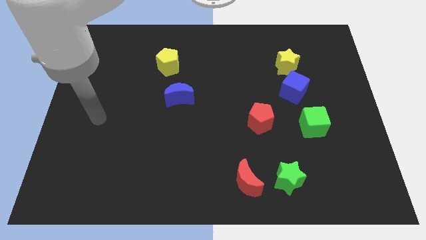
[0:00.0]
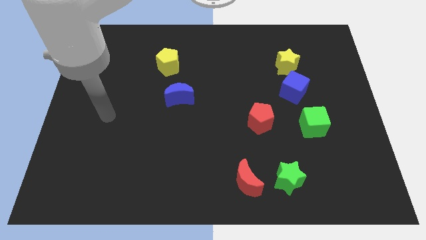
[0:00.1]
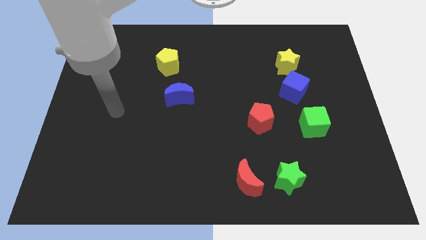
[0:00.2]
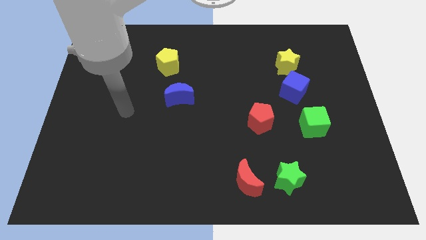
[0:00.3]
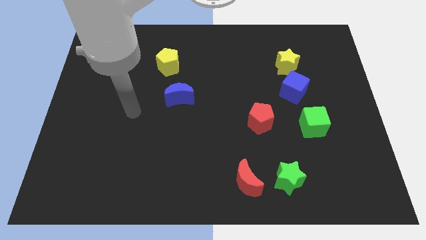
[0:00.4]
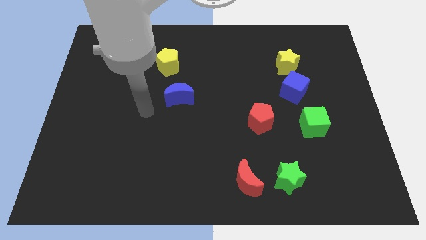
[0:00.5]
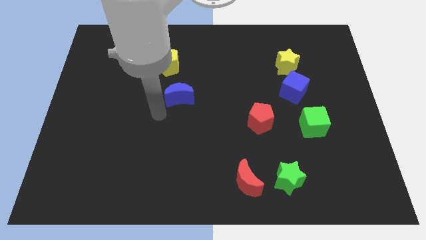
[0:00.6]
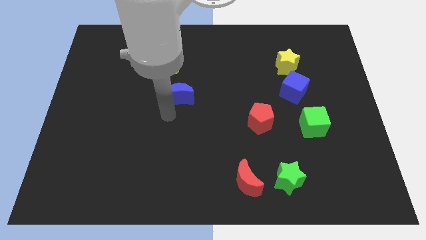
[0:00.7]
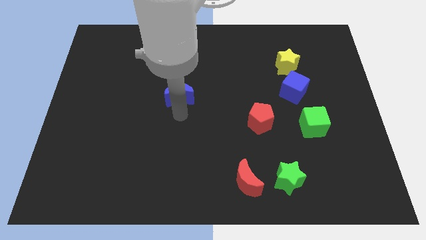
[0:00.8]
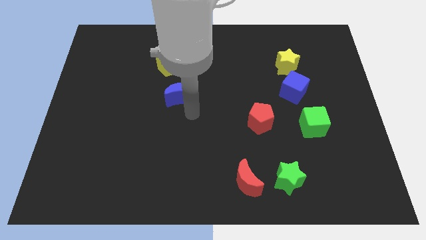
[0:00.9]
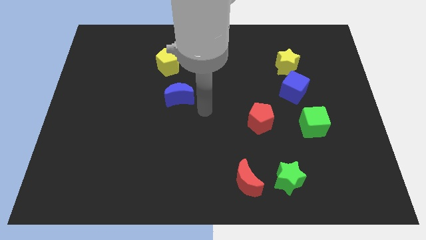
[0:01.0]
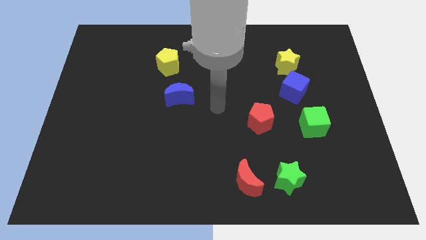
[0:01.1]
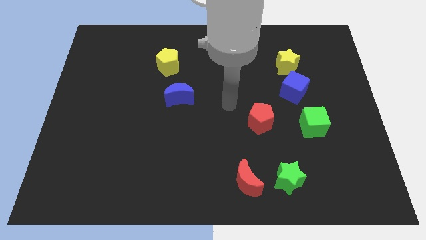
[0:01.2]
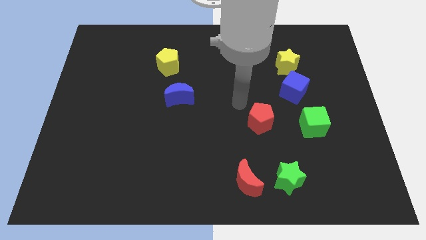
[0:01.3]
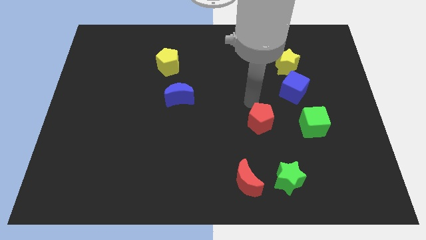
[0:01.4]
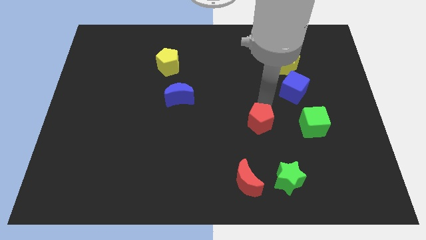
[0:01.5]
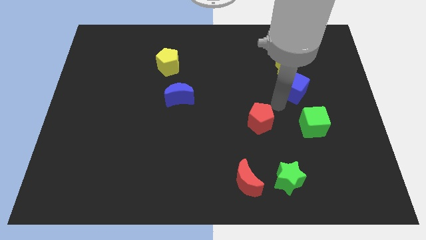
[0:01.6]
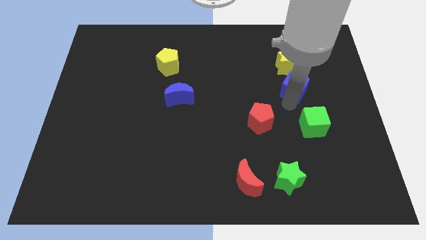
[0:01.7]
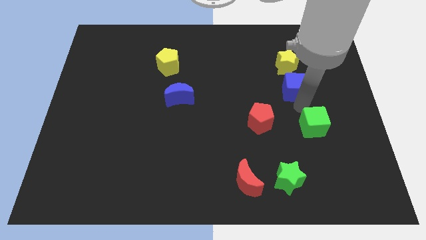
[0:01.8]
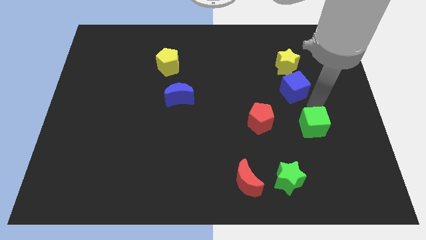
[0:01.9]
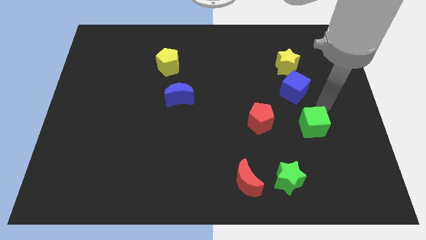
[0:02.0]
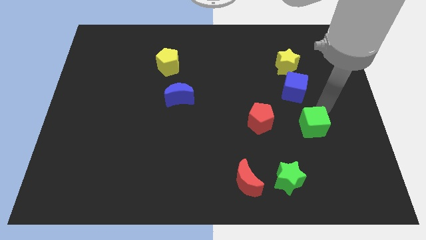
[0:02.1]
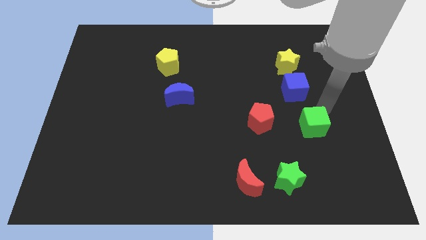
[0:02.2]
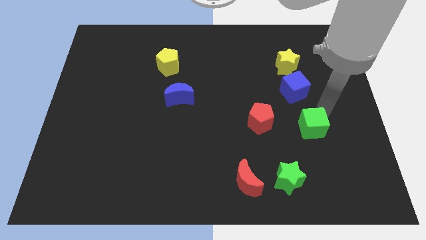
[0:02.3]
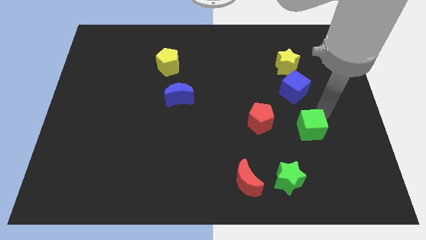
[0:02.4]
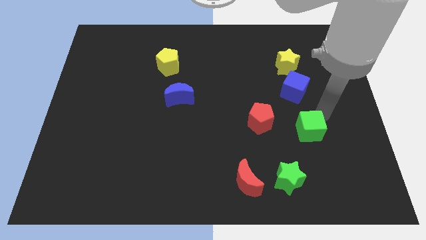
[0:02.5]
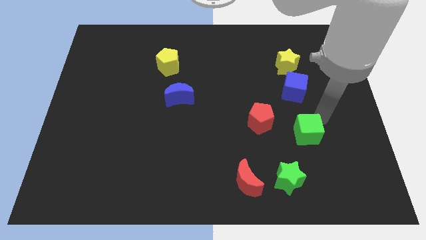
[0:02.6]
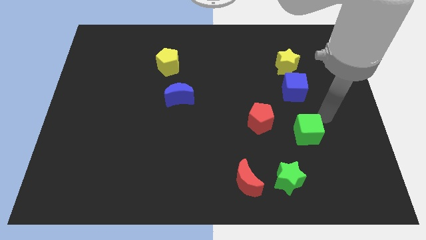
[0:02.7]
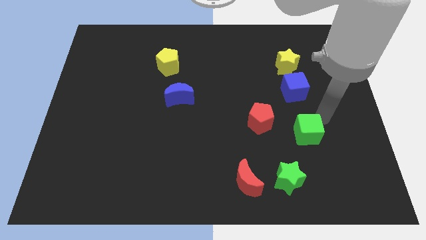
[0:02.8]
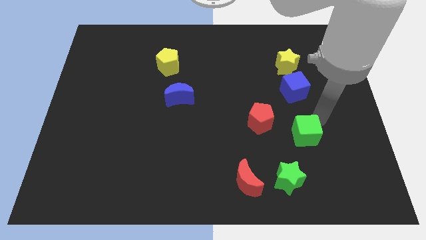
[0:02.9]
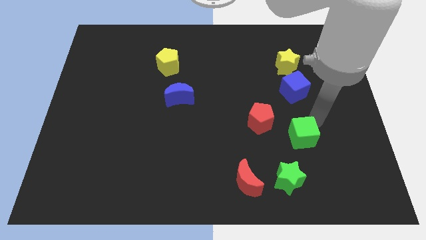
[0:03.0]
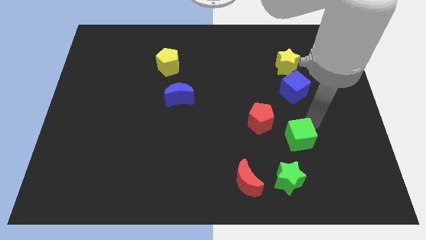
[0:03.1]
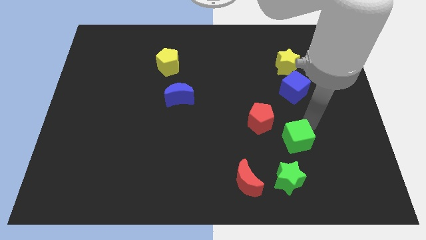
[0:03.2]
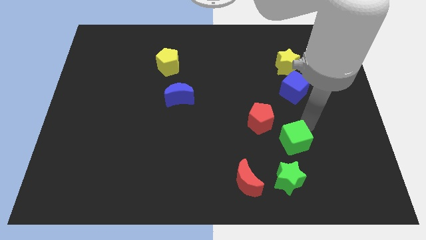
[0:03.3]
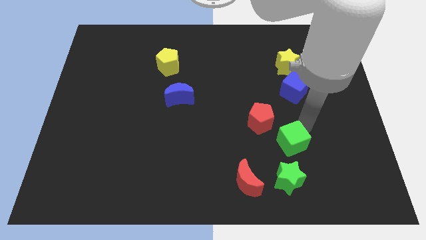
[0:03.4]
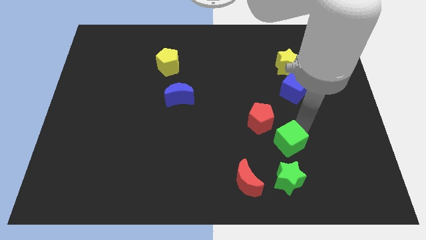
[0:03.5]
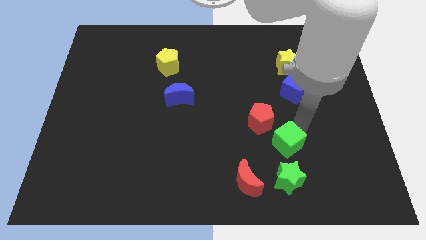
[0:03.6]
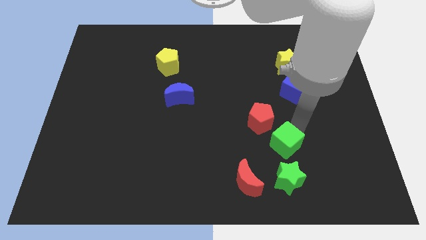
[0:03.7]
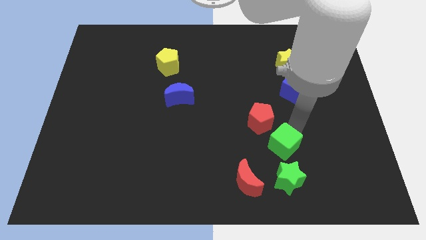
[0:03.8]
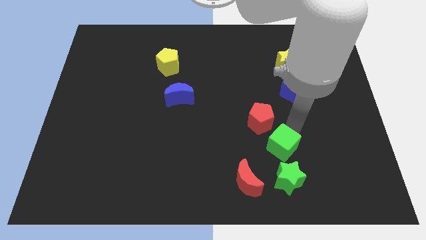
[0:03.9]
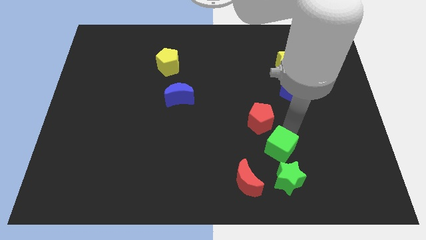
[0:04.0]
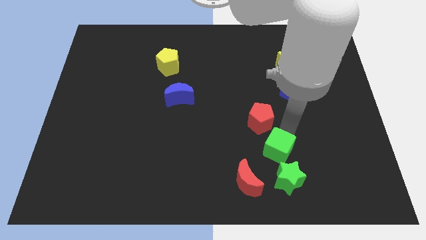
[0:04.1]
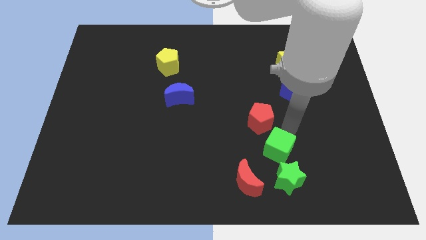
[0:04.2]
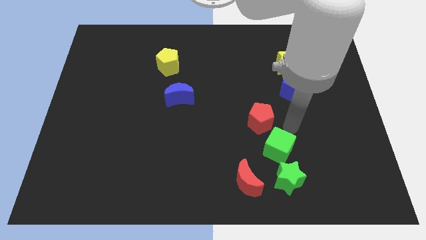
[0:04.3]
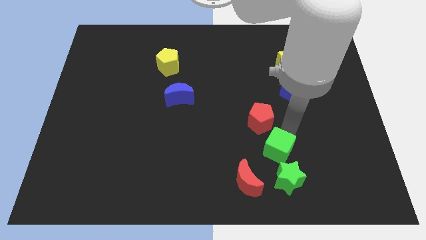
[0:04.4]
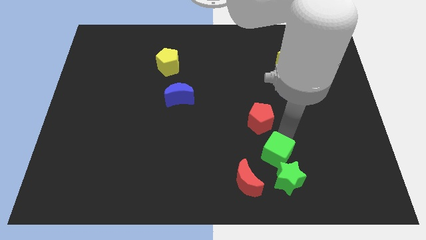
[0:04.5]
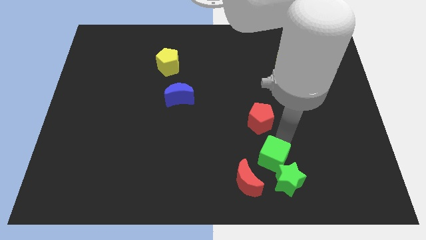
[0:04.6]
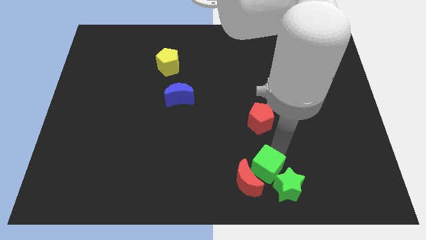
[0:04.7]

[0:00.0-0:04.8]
slide the green cube close to the red moon

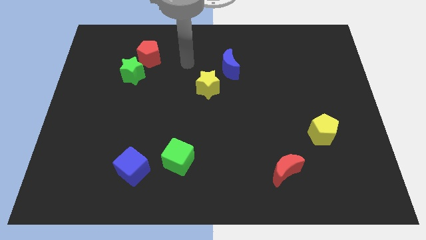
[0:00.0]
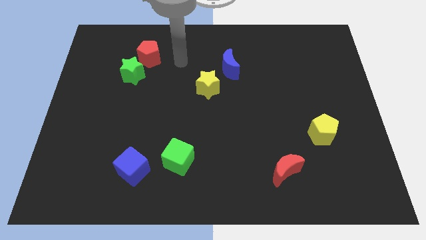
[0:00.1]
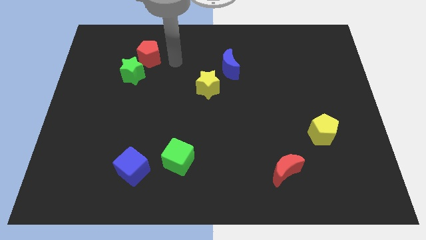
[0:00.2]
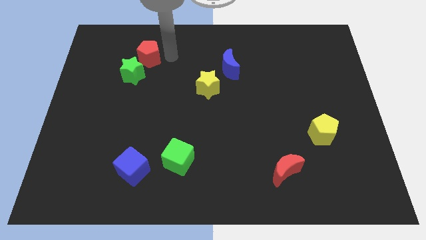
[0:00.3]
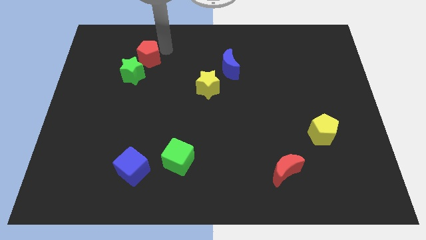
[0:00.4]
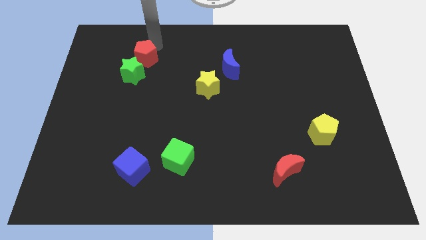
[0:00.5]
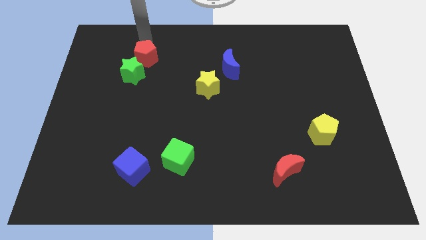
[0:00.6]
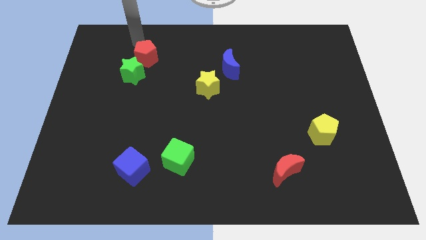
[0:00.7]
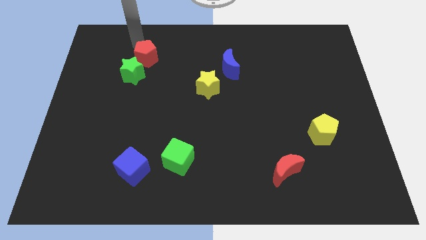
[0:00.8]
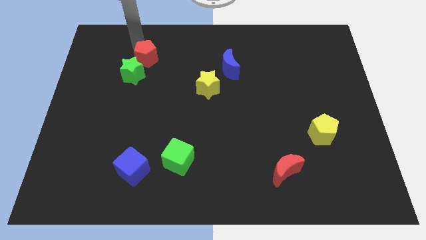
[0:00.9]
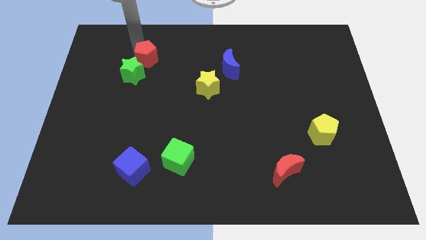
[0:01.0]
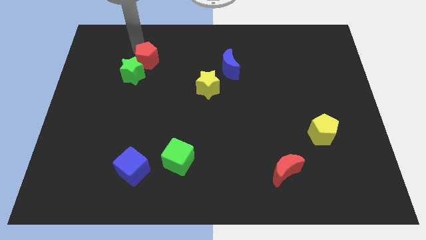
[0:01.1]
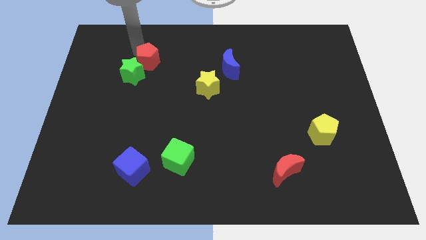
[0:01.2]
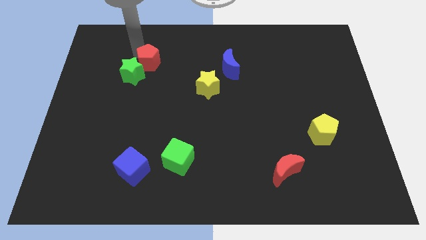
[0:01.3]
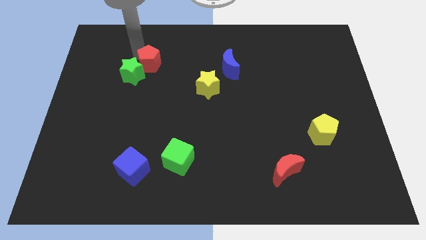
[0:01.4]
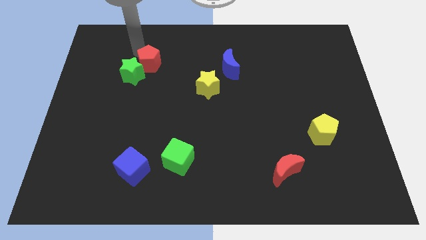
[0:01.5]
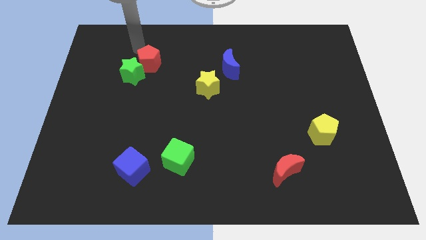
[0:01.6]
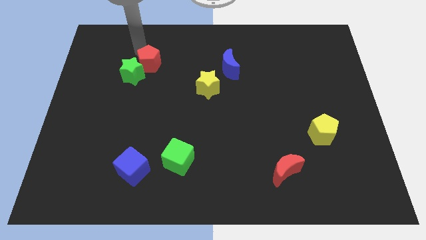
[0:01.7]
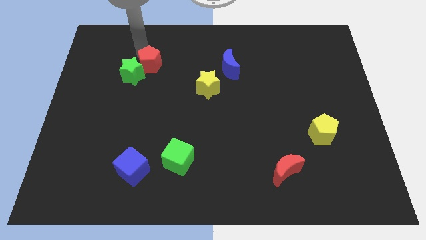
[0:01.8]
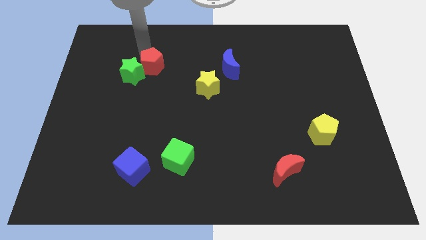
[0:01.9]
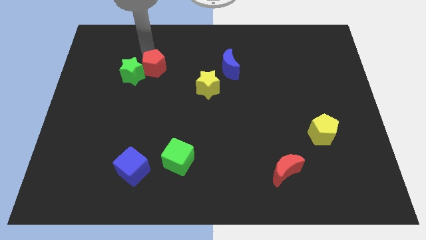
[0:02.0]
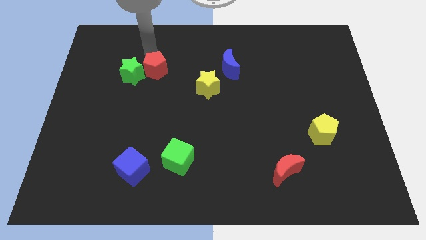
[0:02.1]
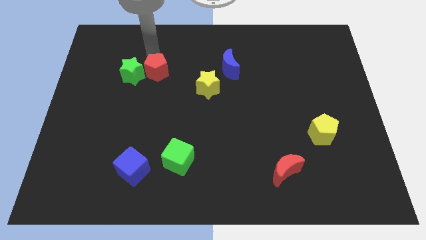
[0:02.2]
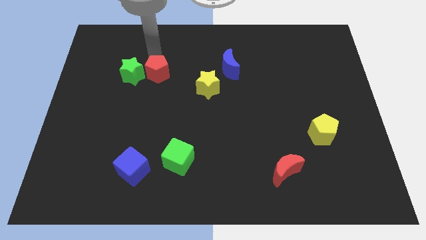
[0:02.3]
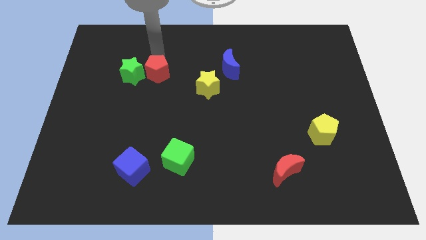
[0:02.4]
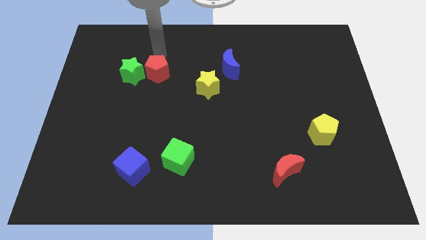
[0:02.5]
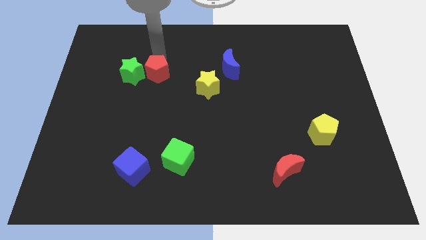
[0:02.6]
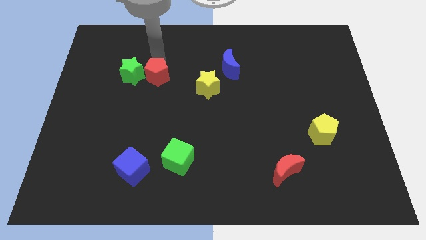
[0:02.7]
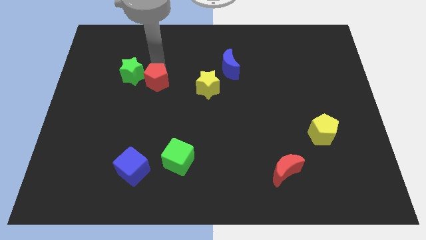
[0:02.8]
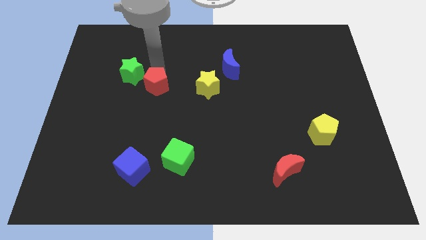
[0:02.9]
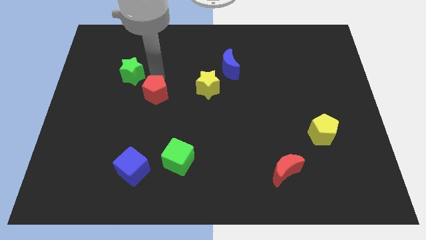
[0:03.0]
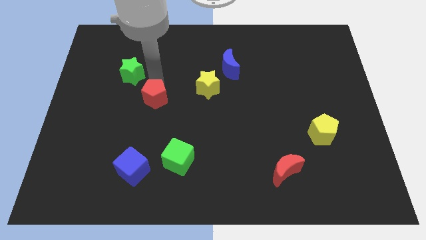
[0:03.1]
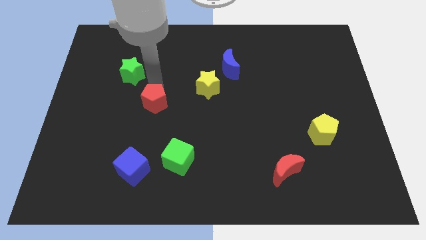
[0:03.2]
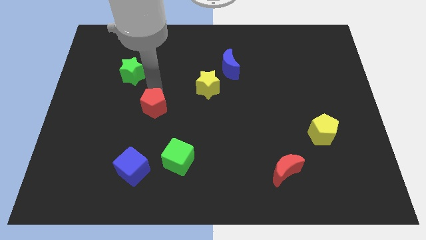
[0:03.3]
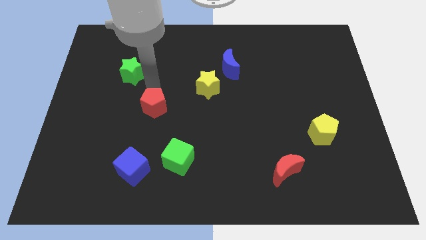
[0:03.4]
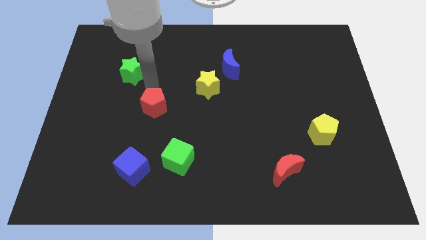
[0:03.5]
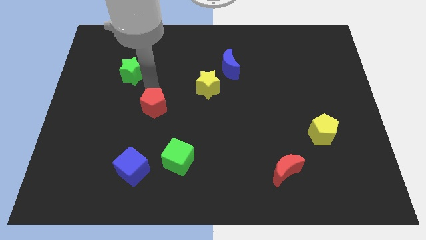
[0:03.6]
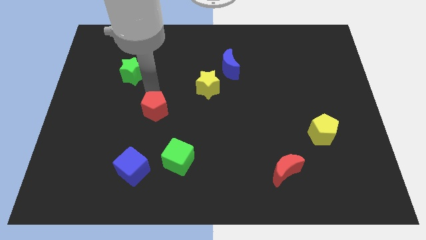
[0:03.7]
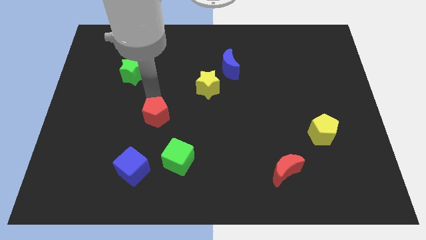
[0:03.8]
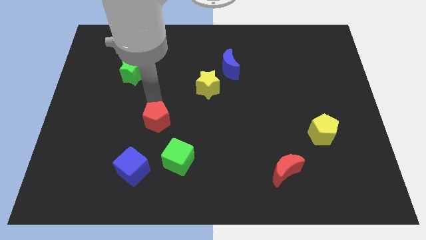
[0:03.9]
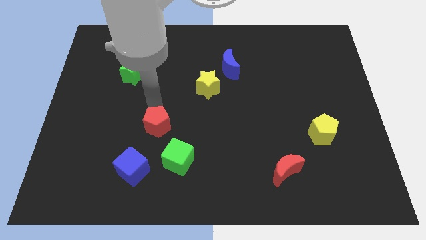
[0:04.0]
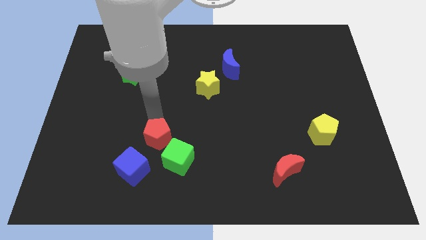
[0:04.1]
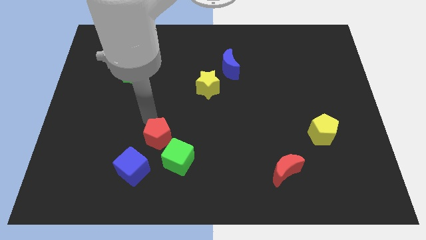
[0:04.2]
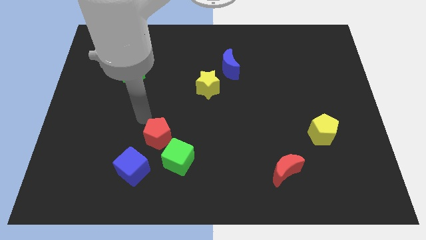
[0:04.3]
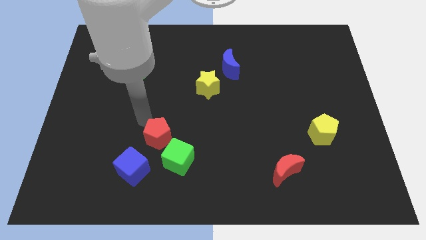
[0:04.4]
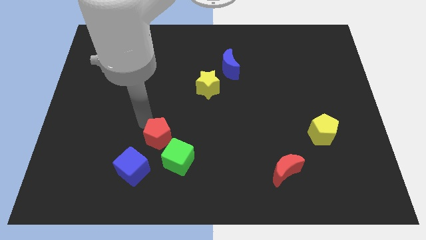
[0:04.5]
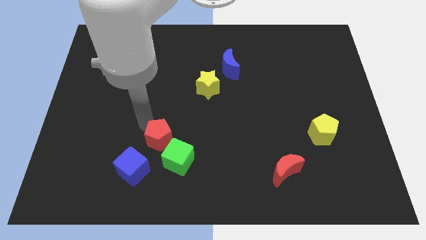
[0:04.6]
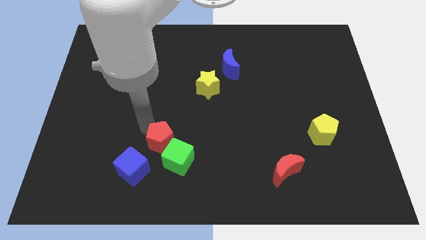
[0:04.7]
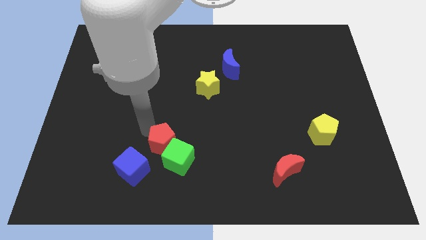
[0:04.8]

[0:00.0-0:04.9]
push the red pentagon to the green cube
